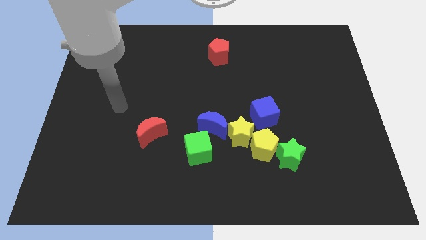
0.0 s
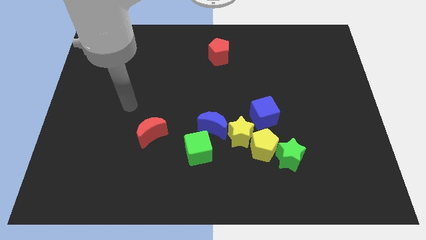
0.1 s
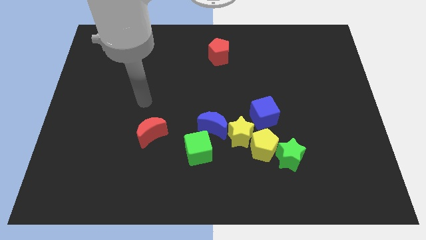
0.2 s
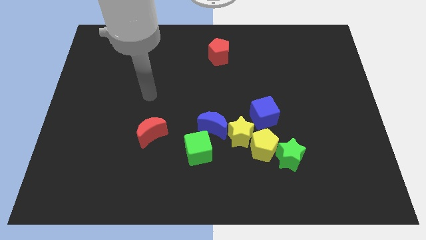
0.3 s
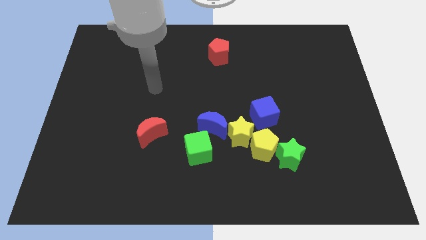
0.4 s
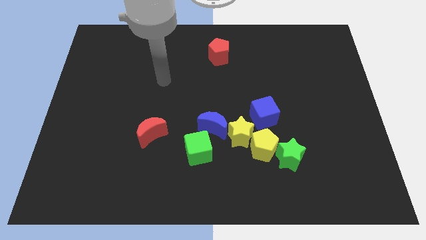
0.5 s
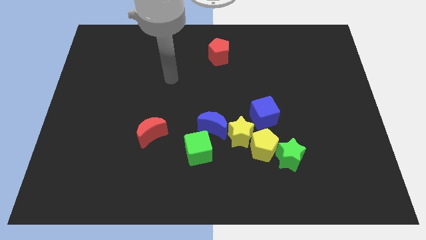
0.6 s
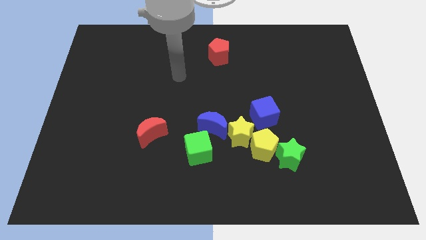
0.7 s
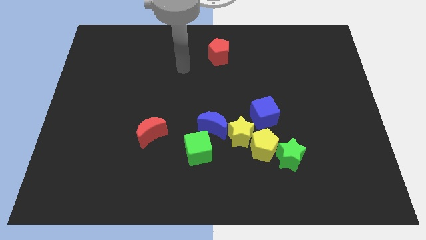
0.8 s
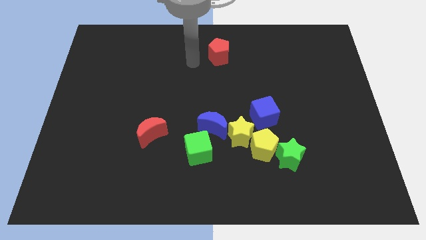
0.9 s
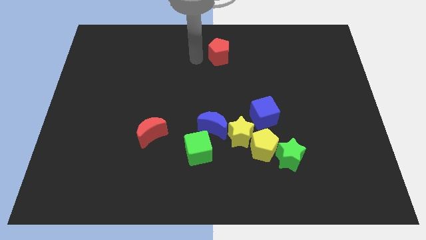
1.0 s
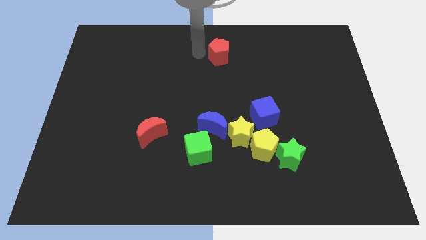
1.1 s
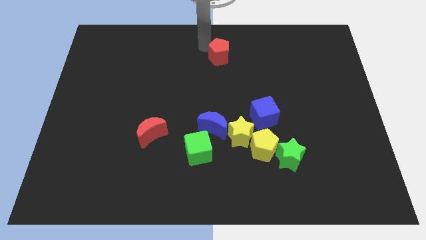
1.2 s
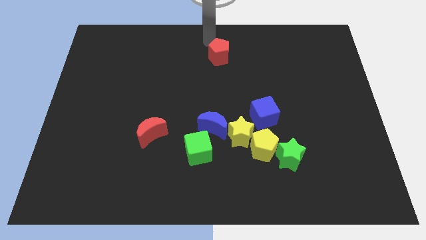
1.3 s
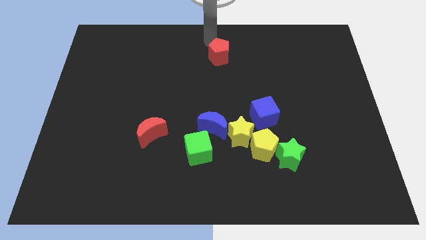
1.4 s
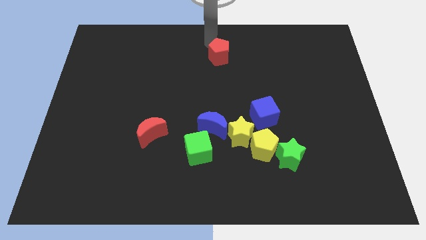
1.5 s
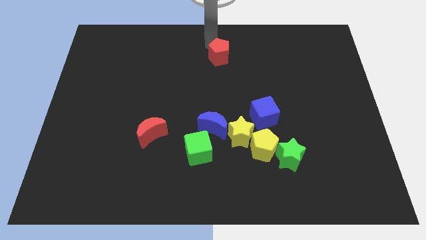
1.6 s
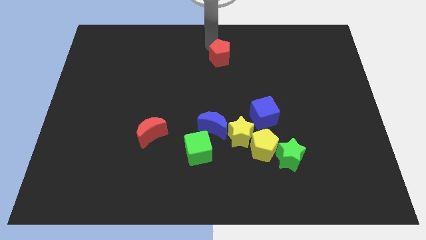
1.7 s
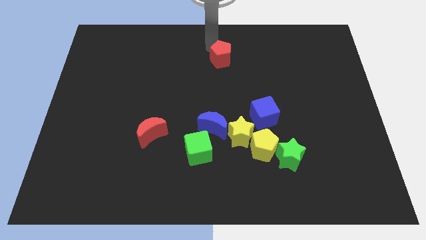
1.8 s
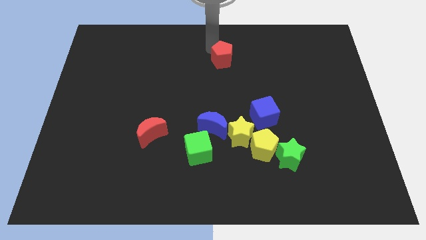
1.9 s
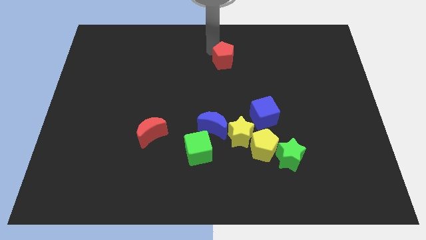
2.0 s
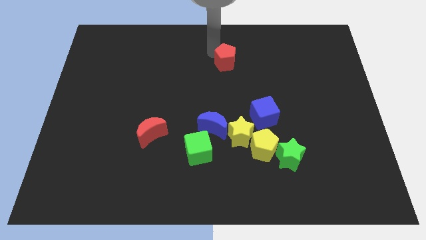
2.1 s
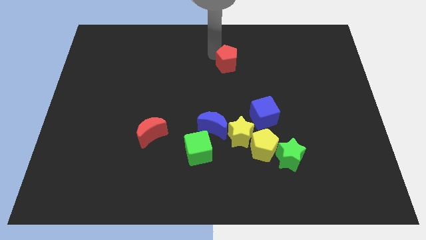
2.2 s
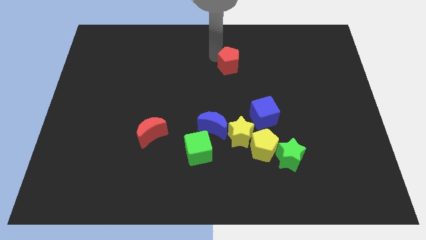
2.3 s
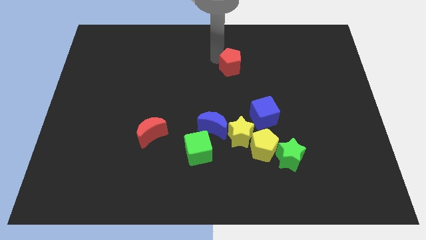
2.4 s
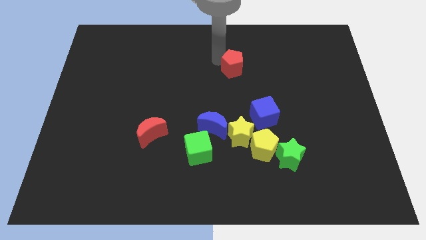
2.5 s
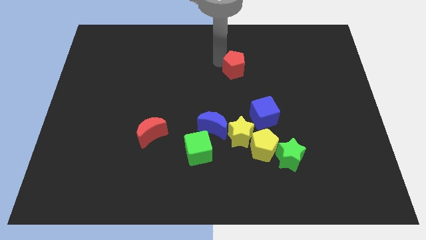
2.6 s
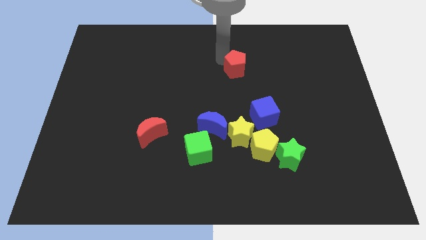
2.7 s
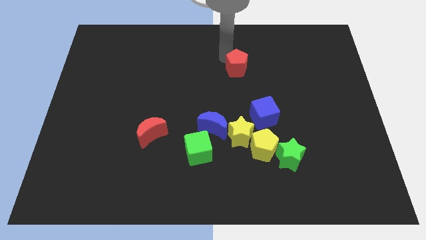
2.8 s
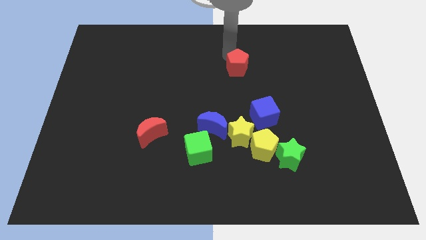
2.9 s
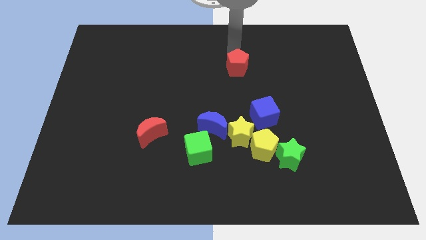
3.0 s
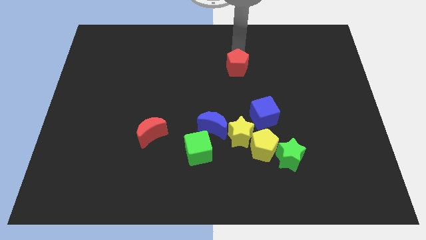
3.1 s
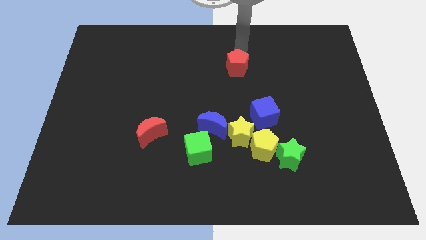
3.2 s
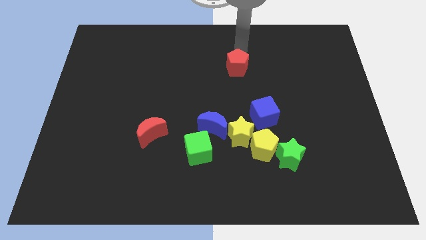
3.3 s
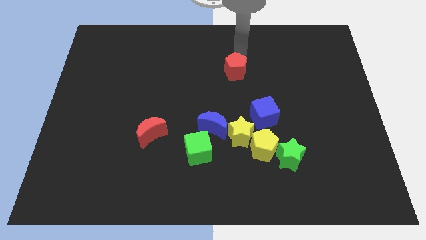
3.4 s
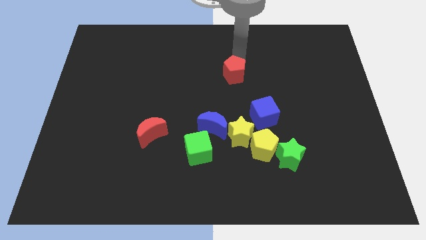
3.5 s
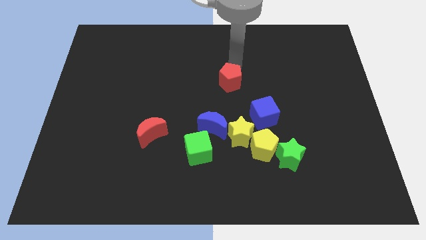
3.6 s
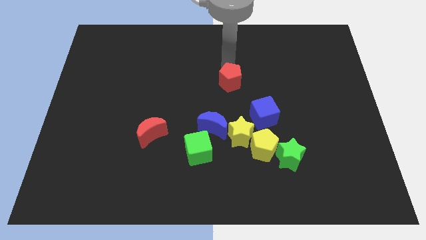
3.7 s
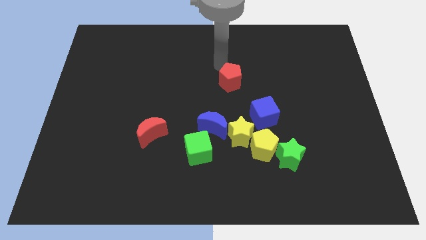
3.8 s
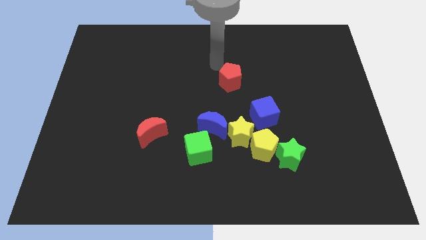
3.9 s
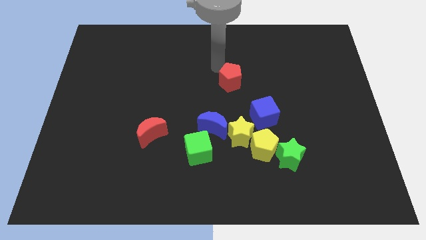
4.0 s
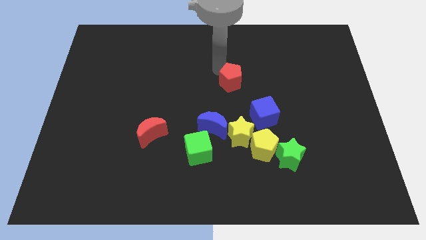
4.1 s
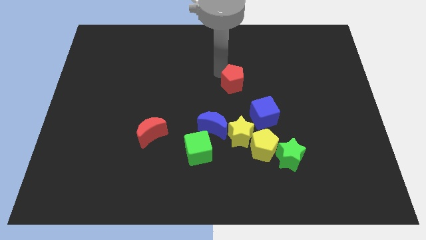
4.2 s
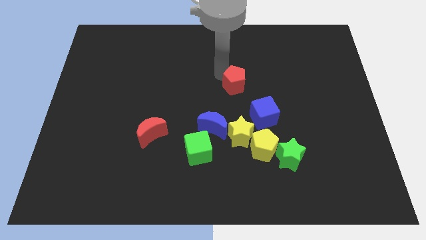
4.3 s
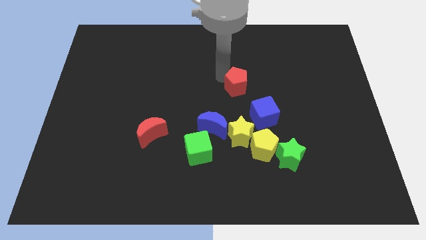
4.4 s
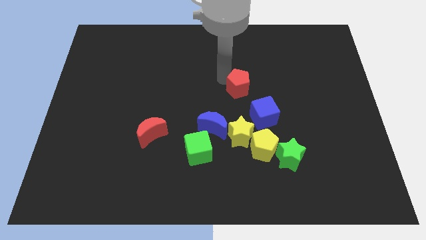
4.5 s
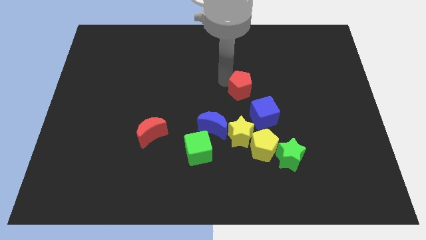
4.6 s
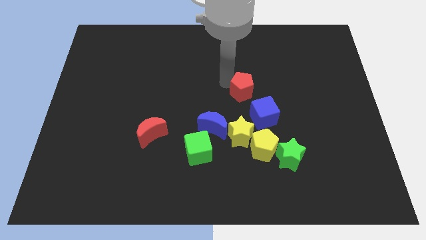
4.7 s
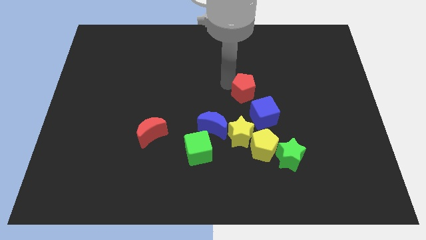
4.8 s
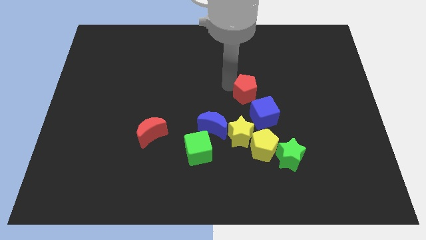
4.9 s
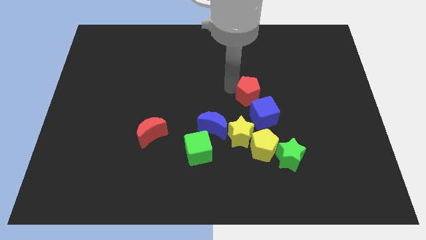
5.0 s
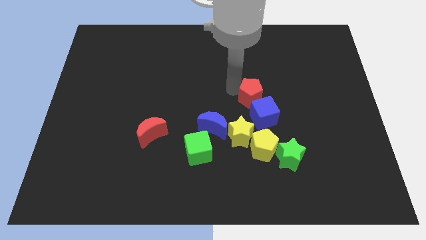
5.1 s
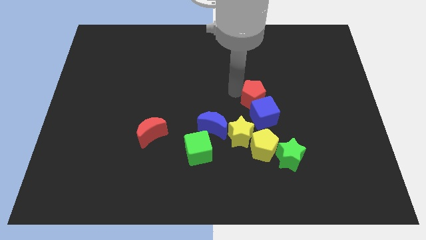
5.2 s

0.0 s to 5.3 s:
push the red pentagon close to the blue cube

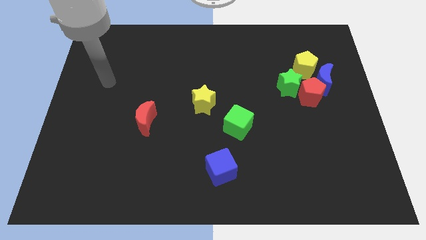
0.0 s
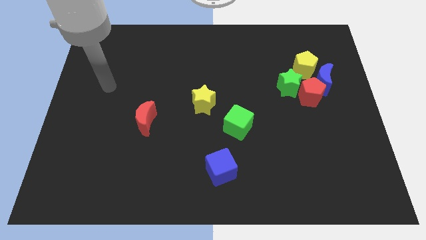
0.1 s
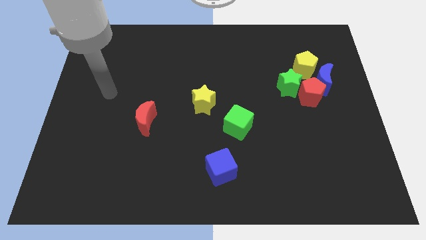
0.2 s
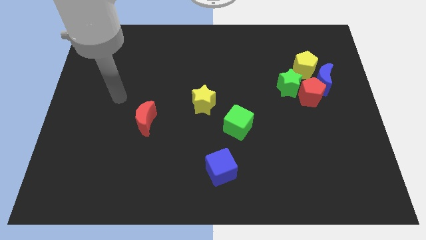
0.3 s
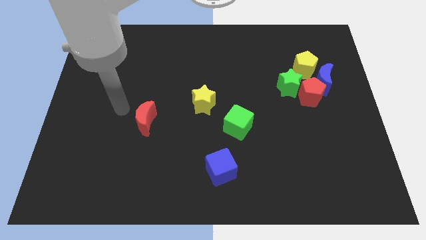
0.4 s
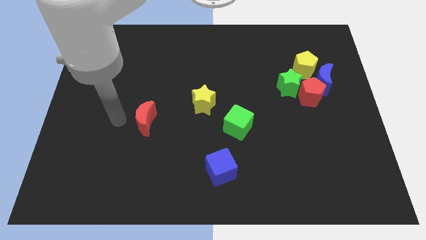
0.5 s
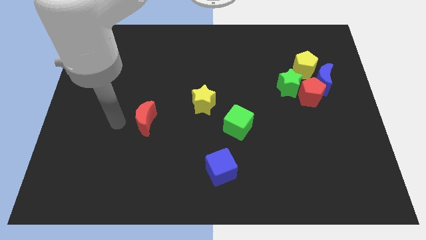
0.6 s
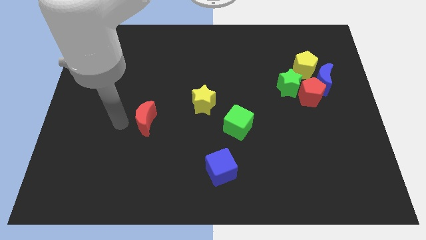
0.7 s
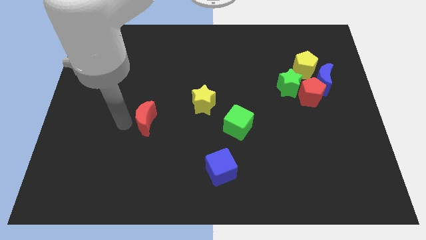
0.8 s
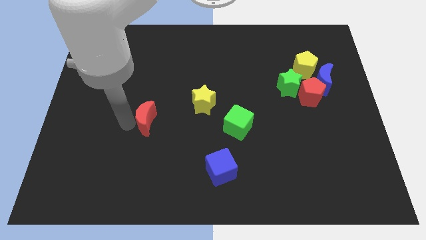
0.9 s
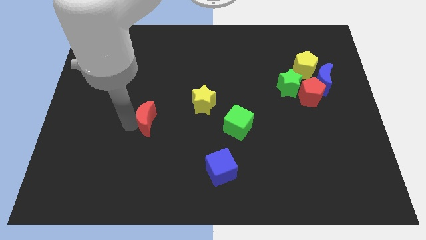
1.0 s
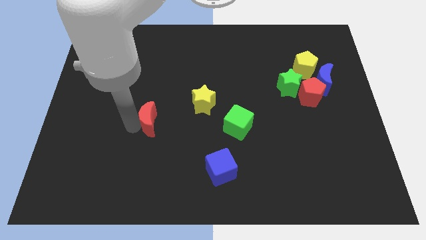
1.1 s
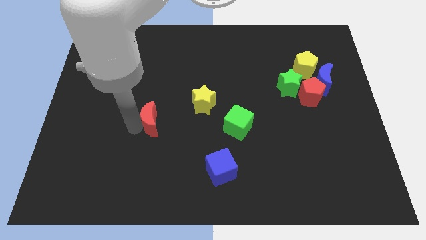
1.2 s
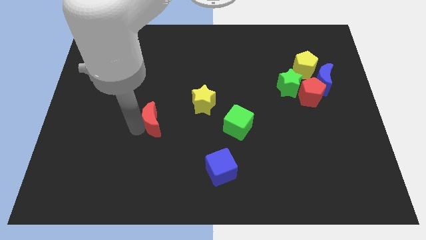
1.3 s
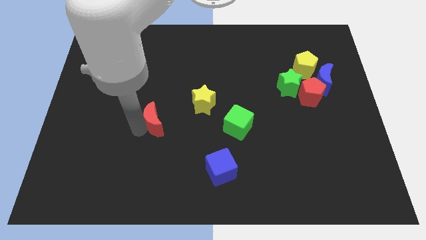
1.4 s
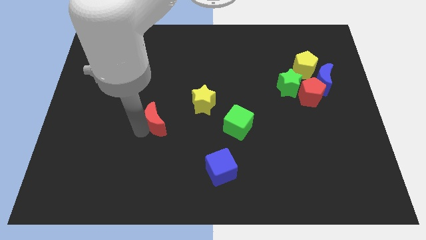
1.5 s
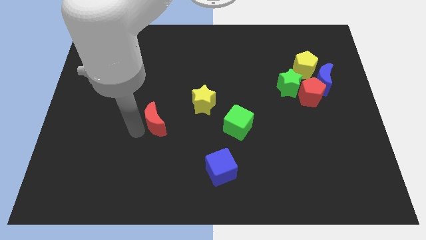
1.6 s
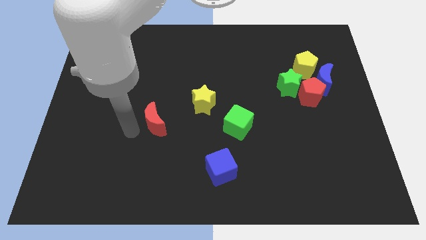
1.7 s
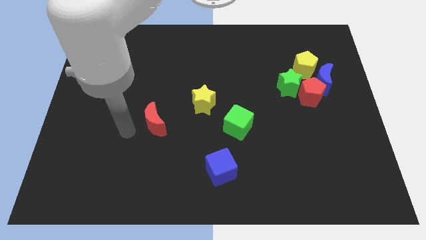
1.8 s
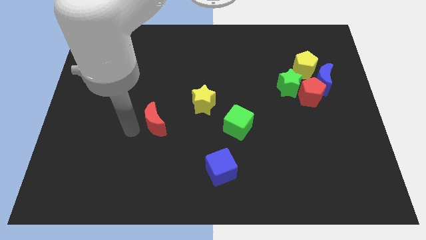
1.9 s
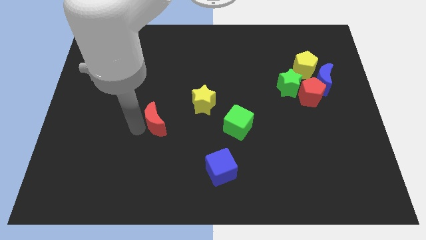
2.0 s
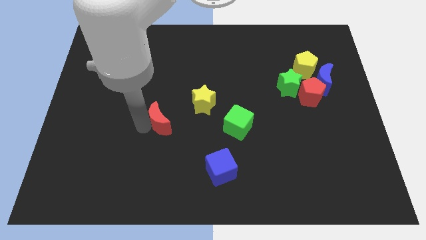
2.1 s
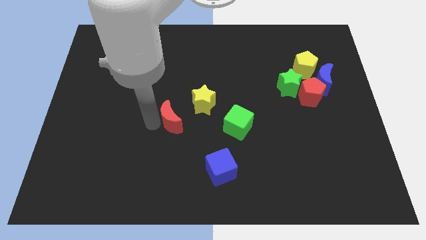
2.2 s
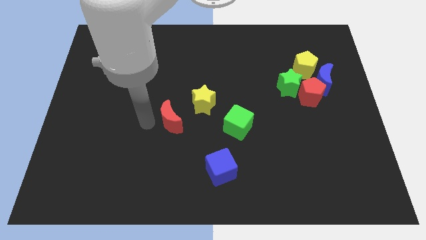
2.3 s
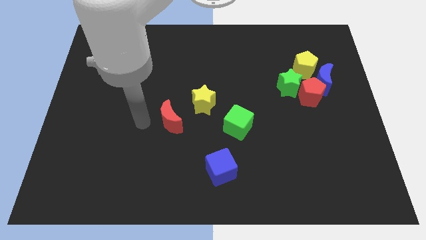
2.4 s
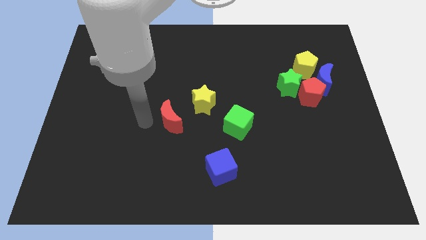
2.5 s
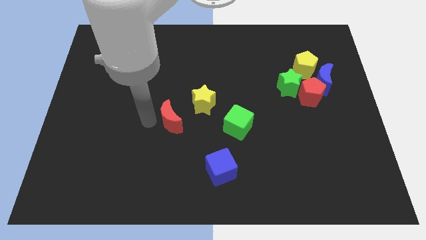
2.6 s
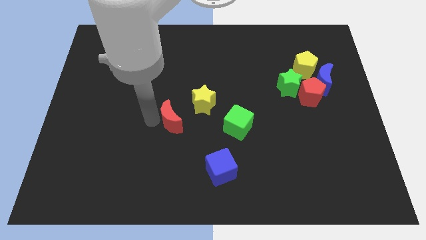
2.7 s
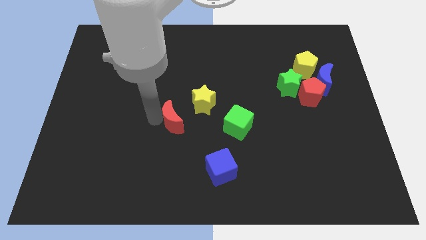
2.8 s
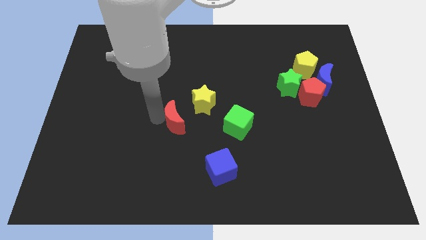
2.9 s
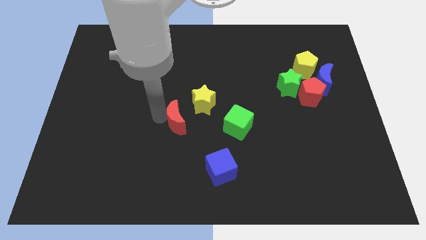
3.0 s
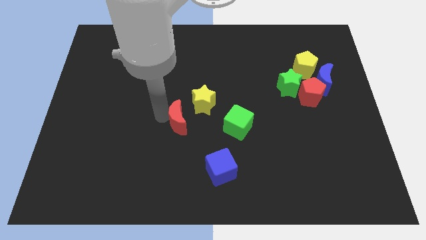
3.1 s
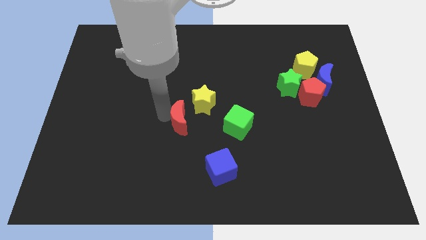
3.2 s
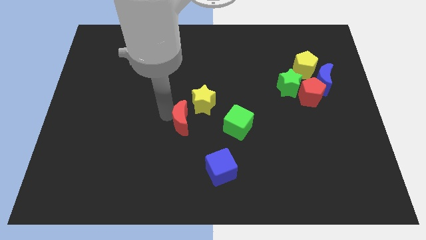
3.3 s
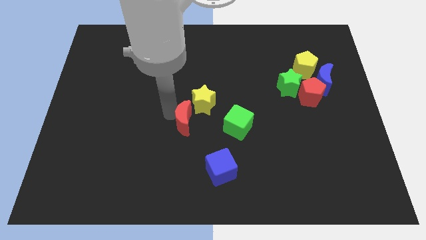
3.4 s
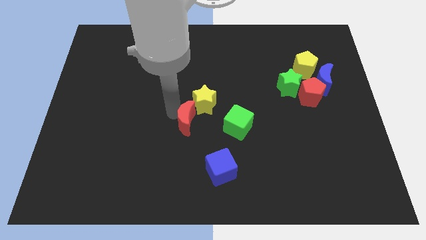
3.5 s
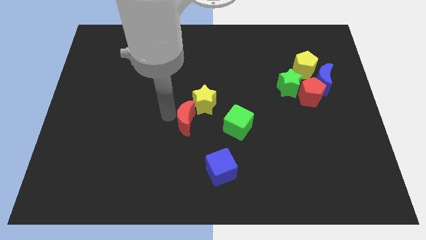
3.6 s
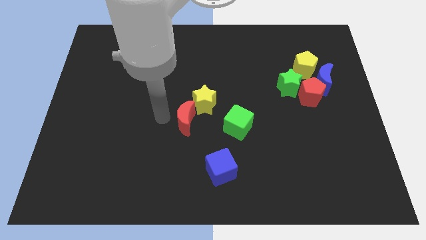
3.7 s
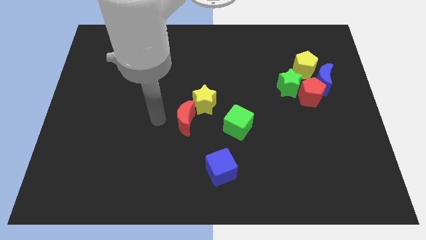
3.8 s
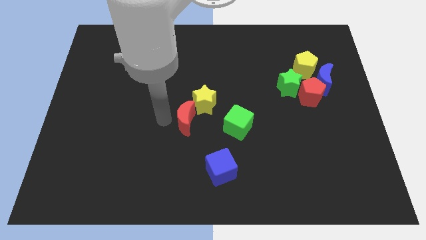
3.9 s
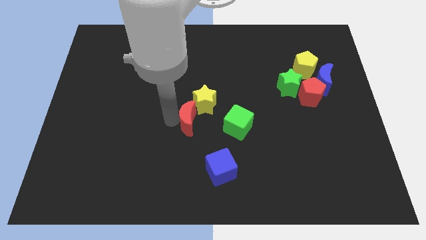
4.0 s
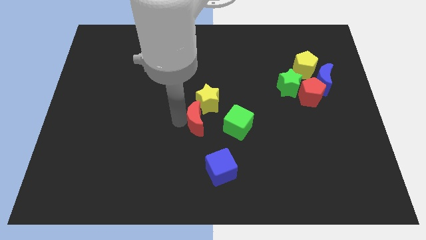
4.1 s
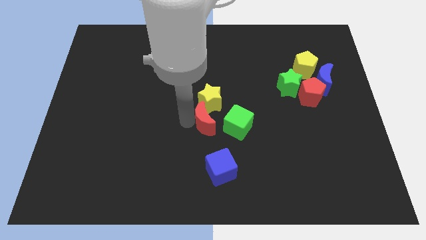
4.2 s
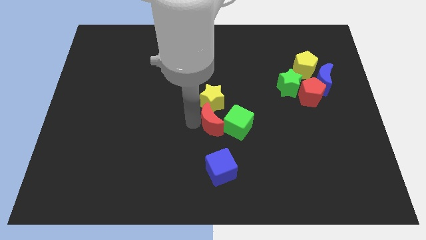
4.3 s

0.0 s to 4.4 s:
put the red moon next to the green cube
